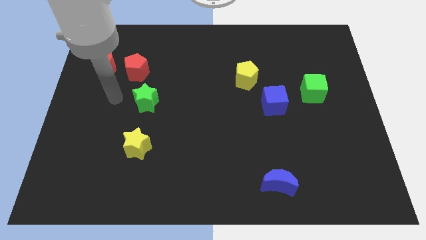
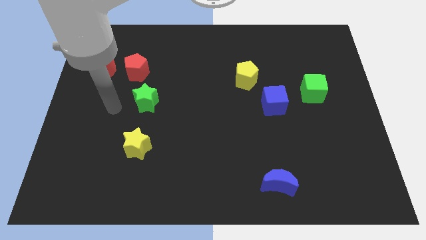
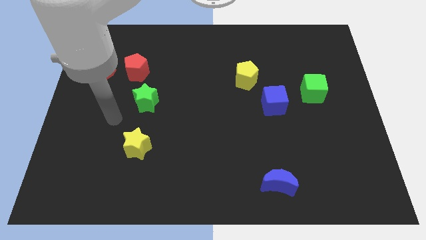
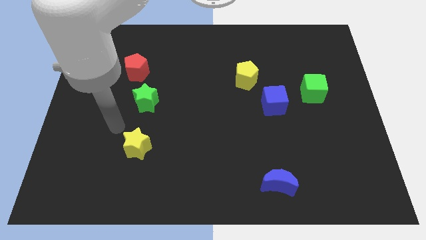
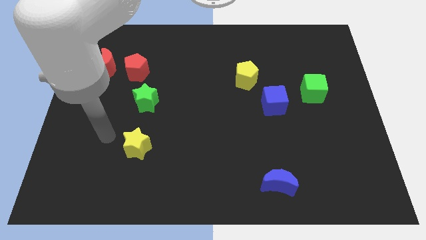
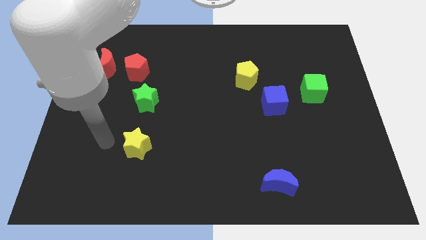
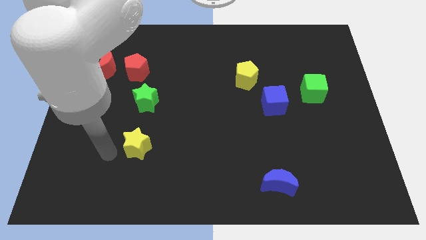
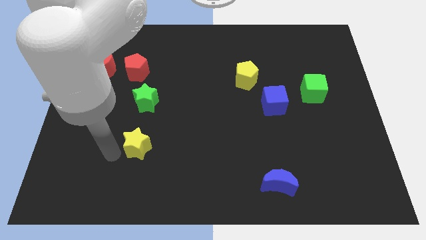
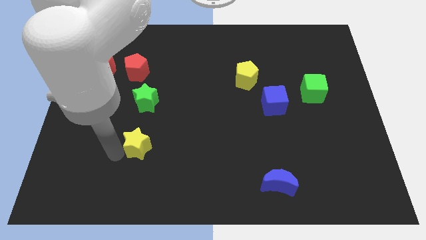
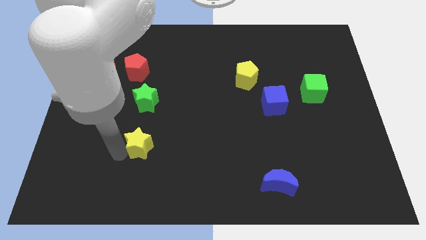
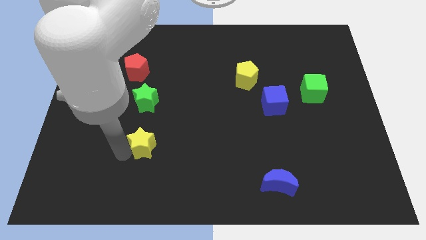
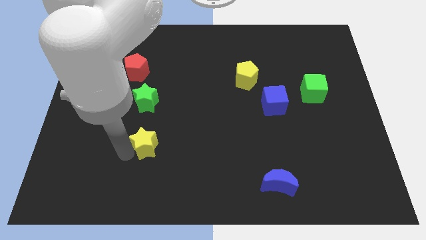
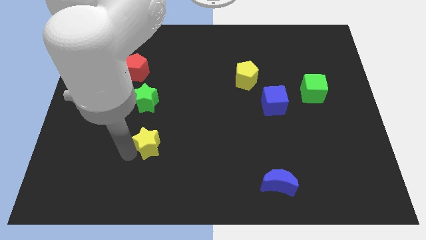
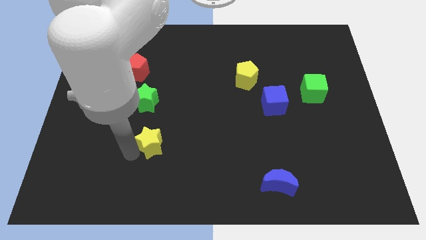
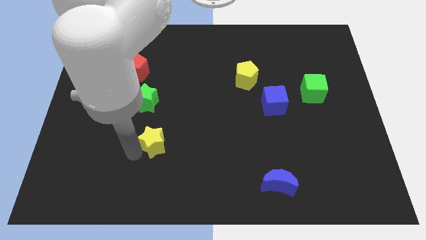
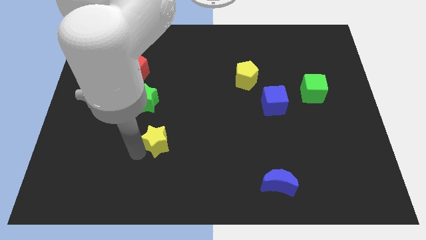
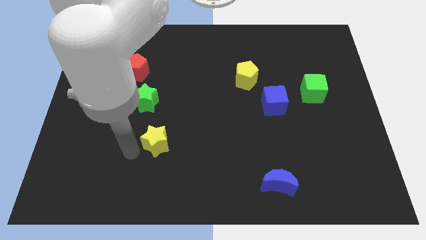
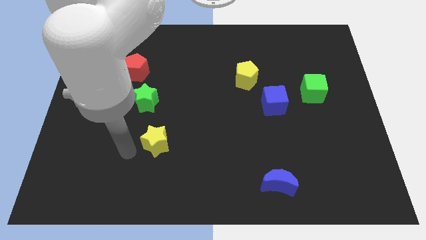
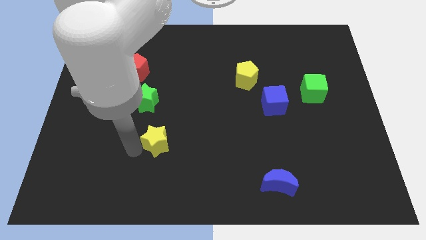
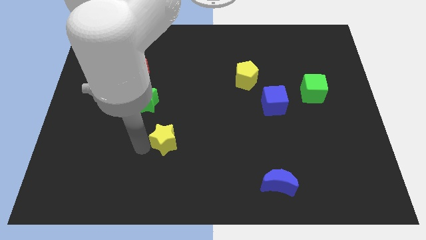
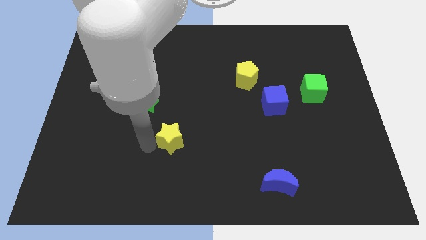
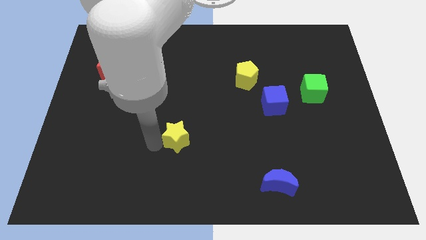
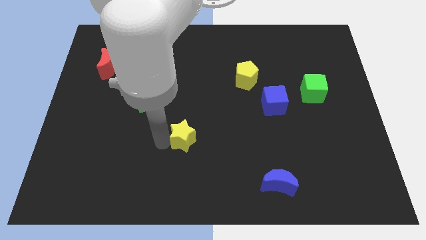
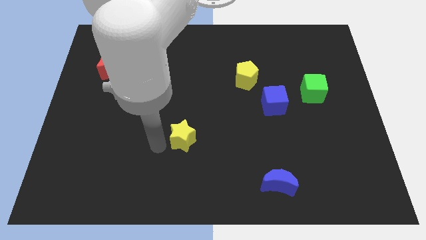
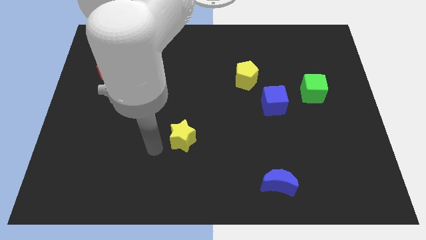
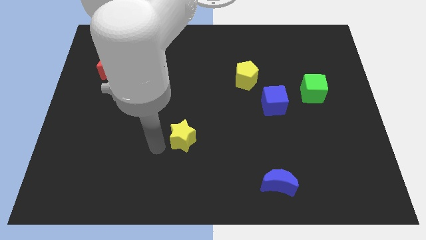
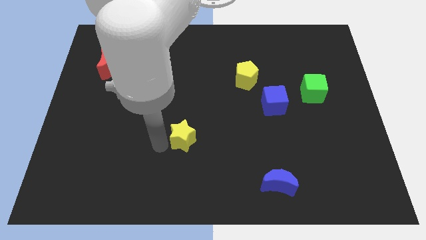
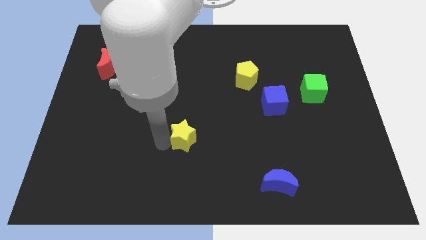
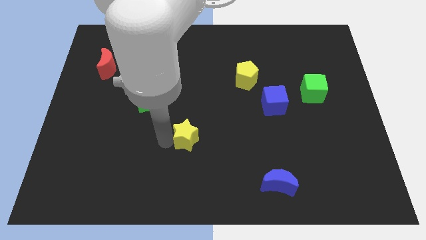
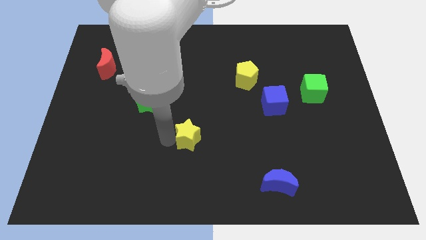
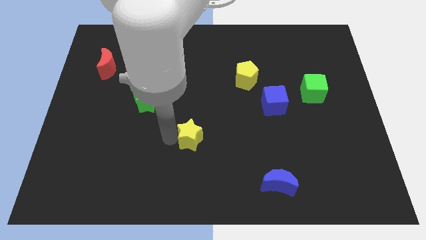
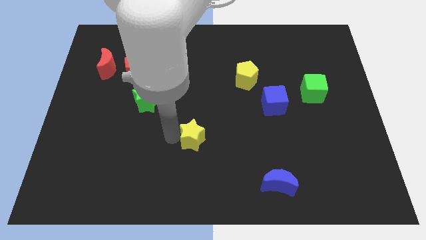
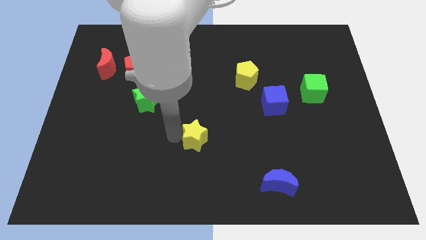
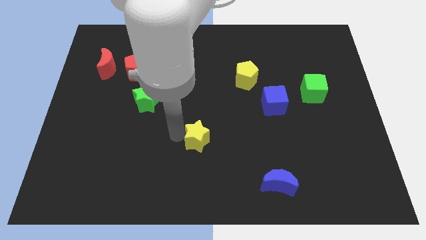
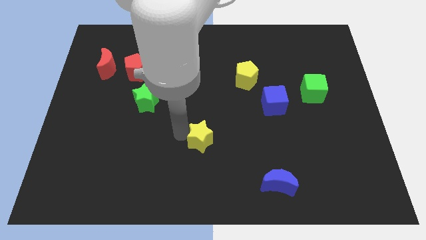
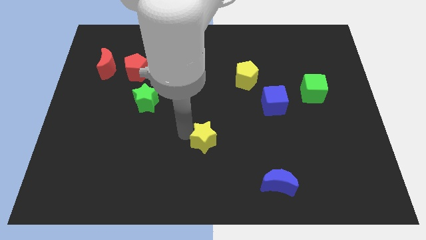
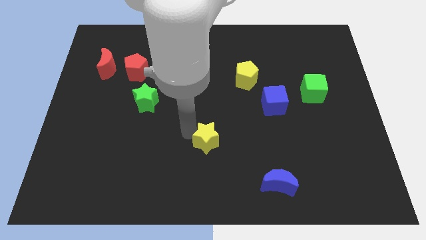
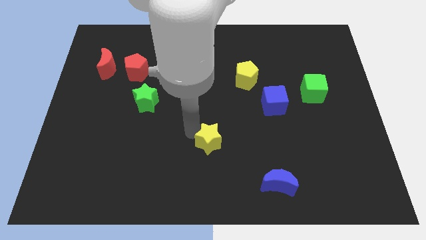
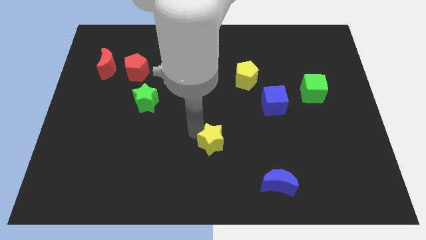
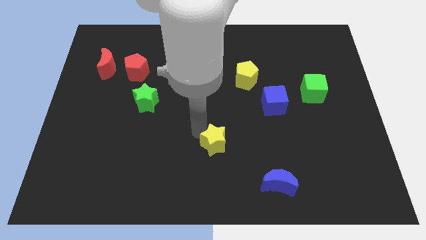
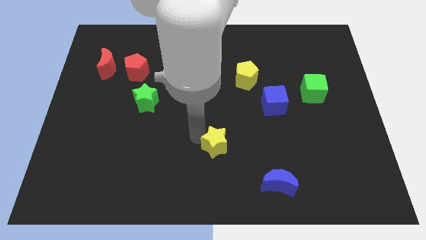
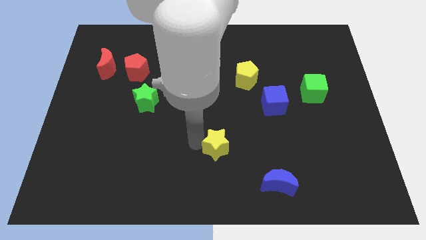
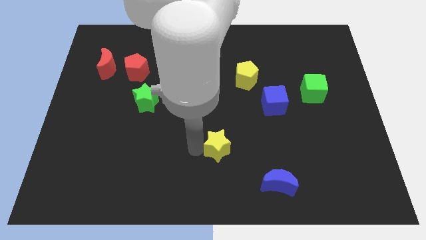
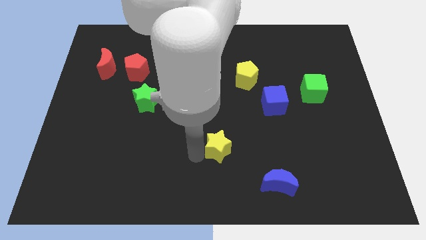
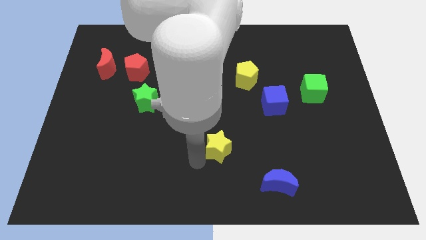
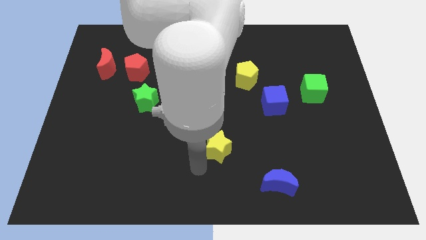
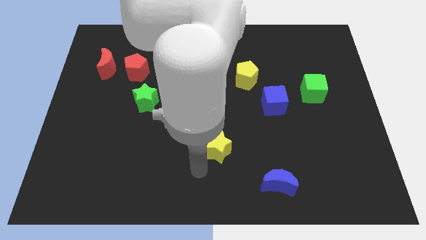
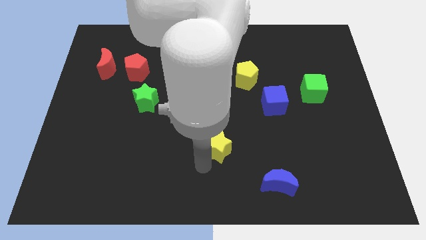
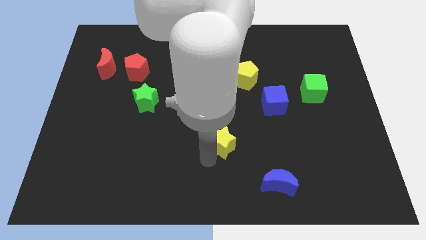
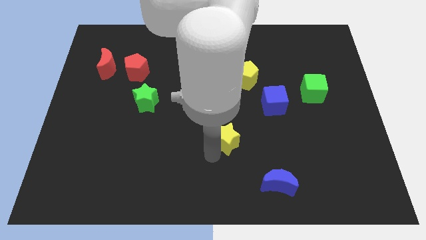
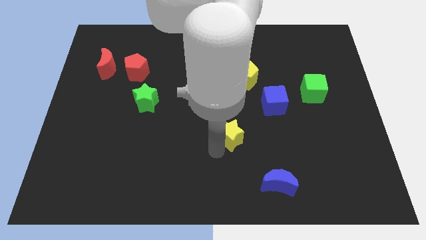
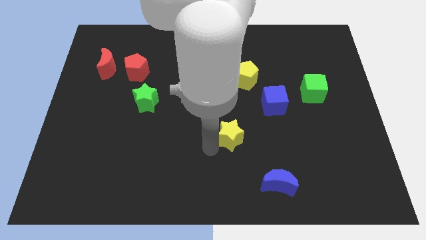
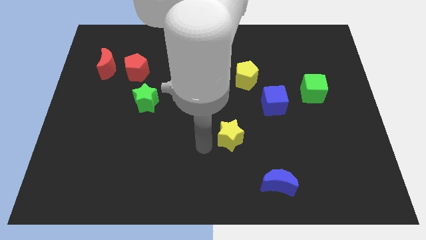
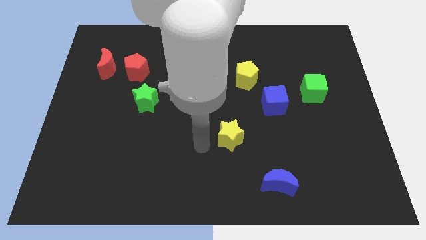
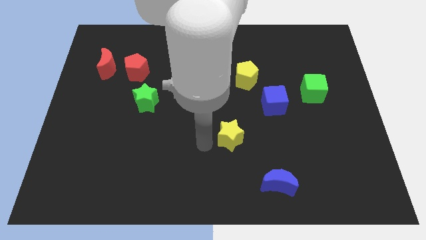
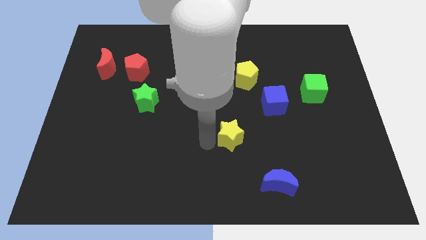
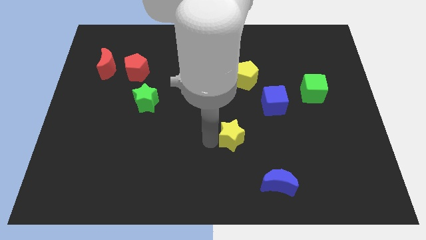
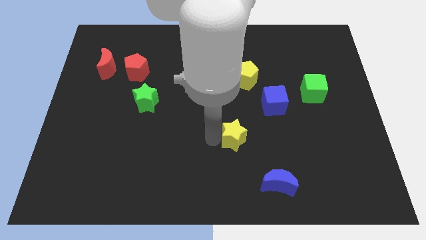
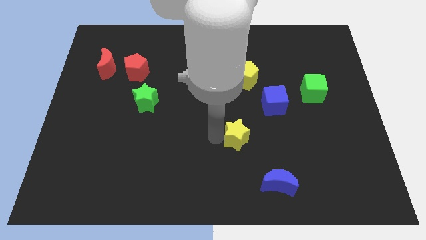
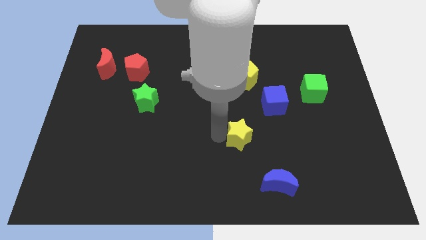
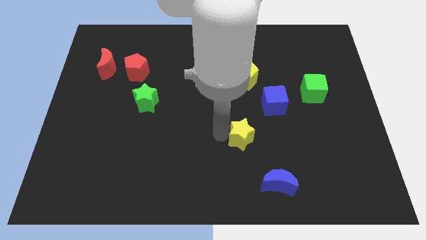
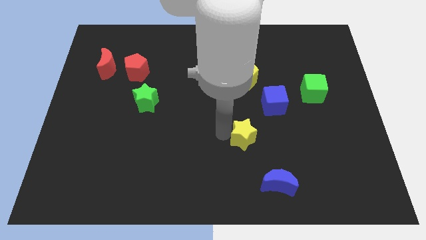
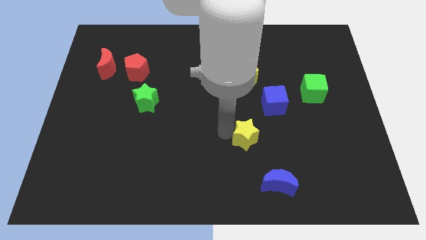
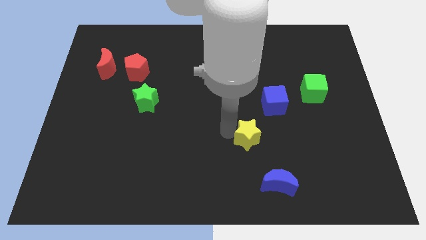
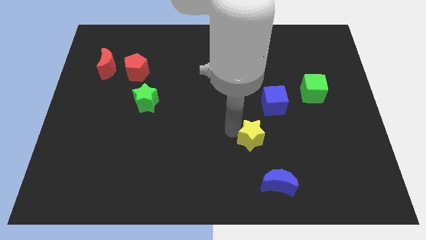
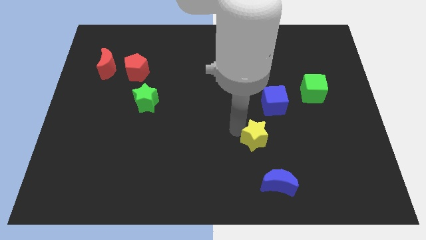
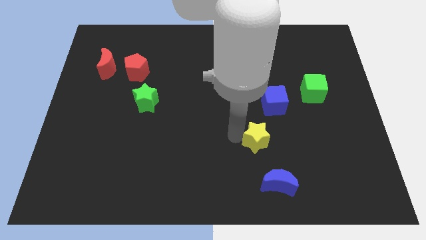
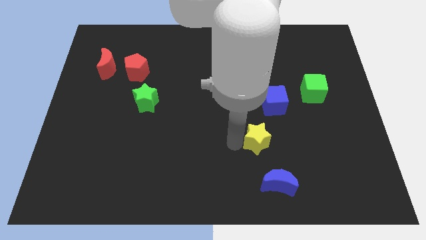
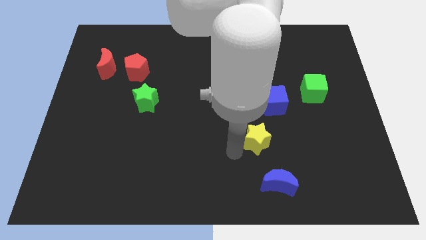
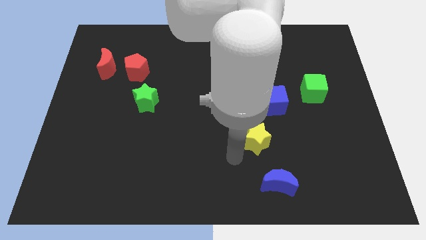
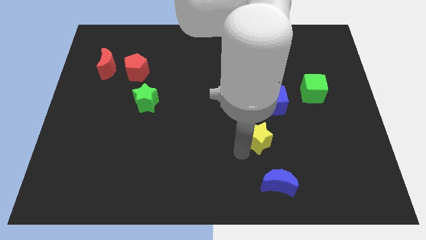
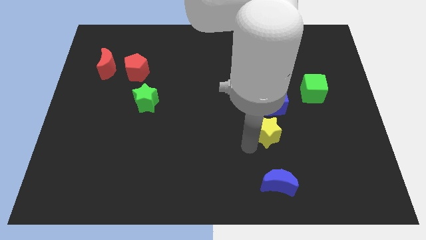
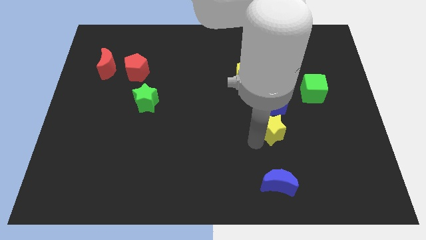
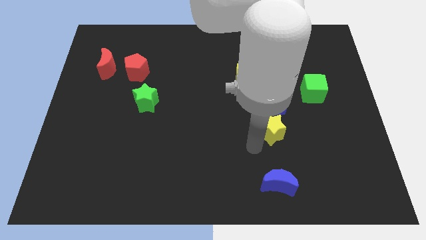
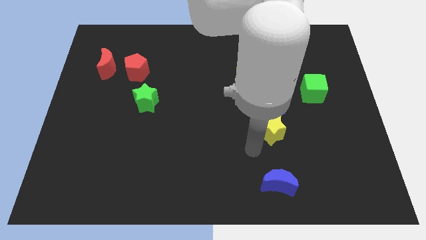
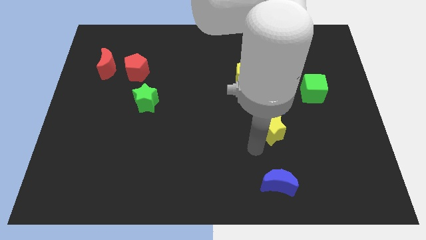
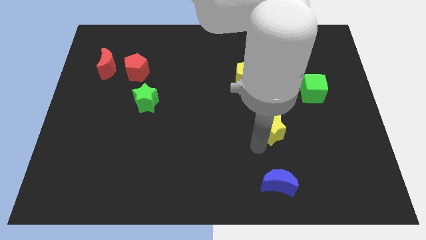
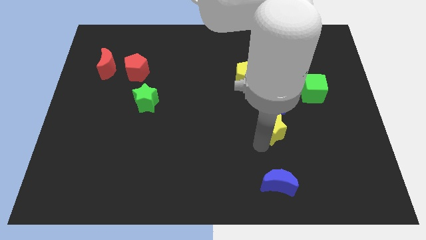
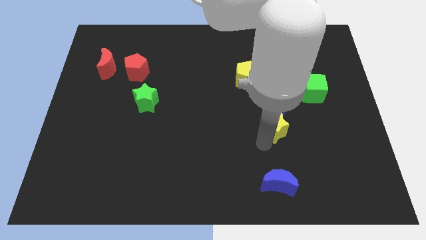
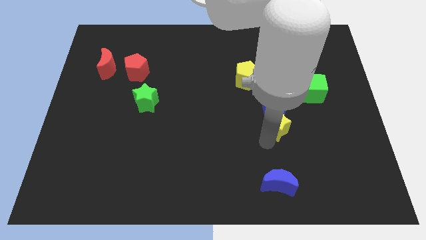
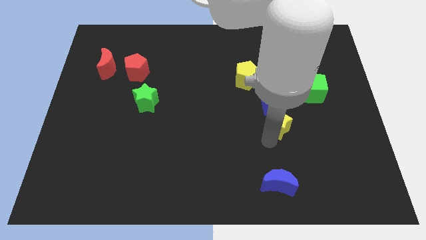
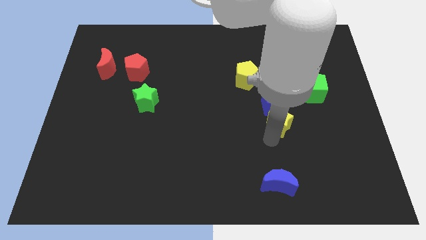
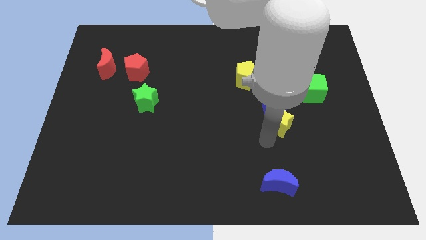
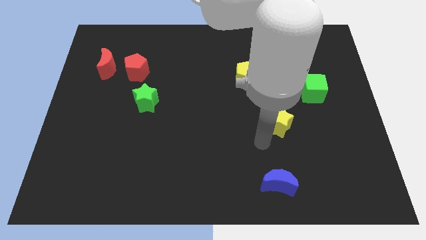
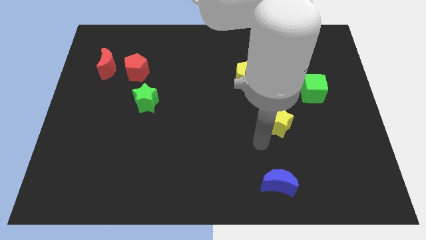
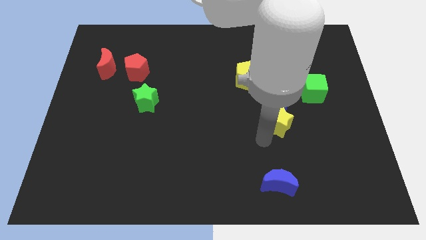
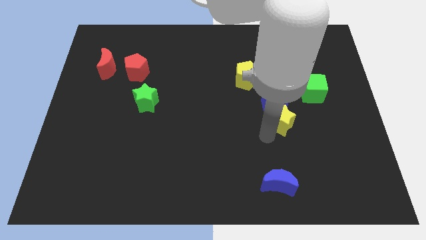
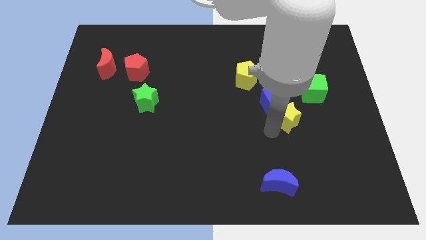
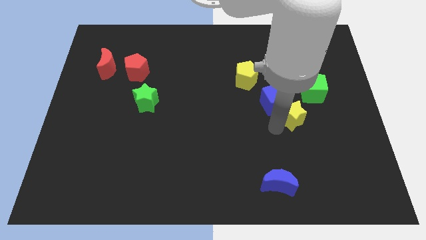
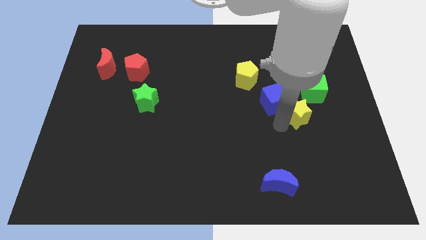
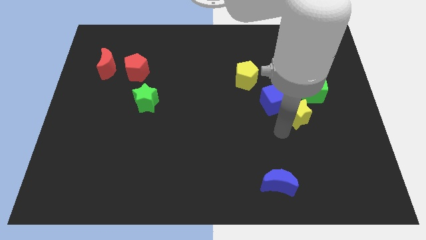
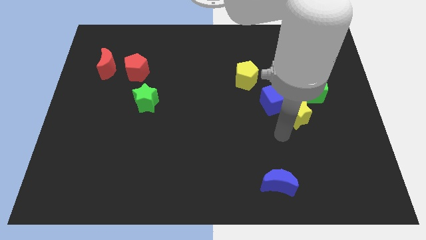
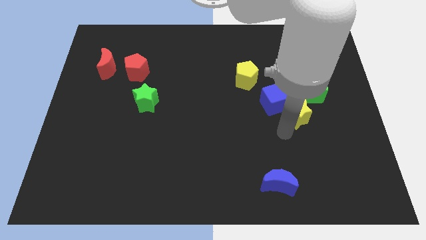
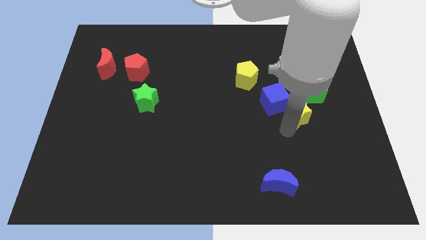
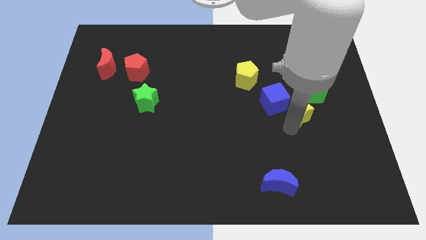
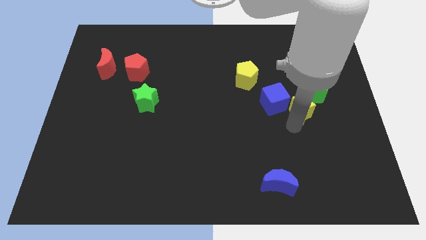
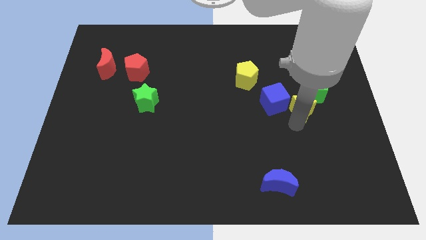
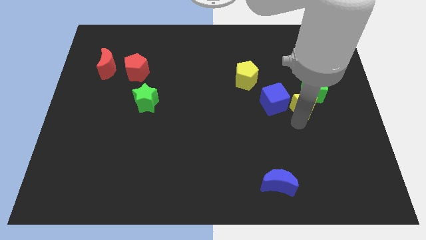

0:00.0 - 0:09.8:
move the yellow star close to the green cube
